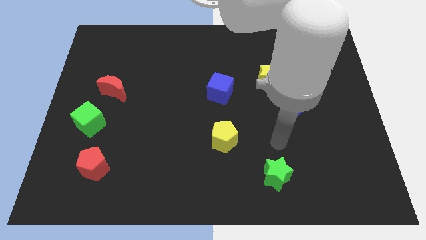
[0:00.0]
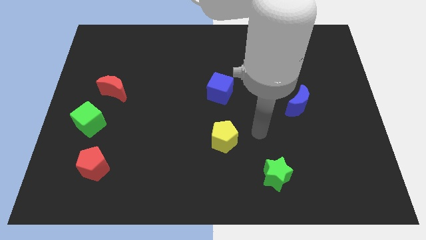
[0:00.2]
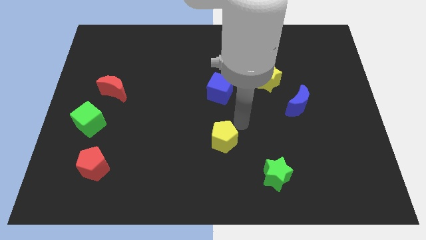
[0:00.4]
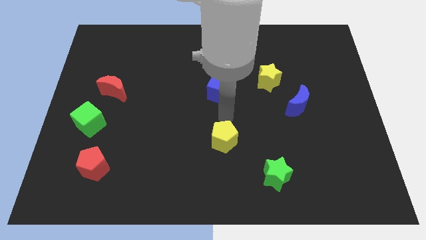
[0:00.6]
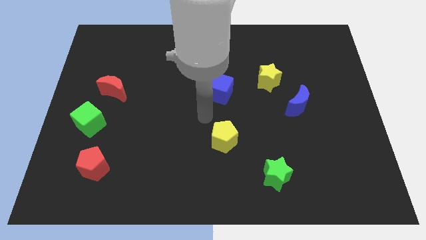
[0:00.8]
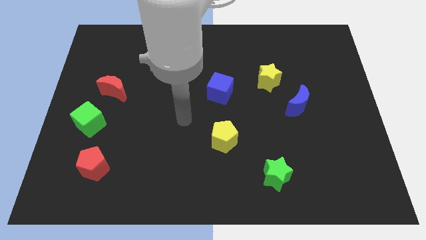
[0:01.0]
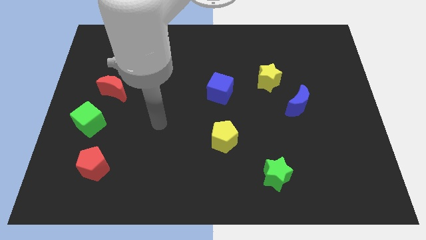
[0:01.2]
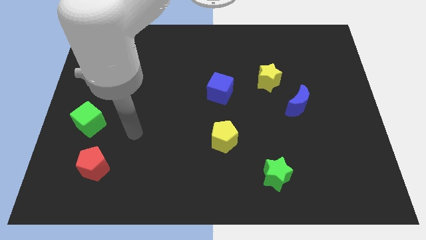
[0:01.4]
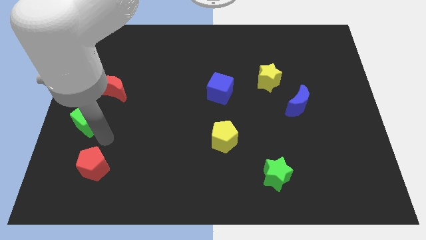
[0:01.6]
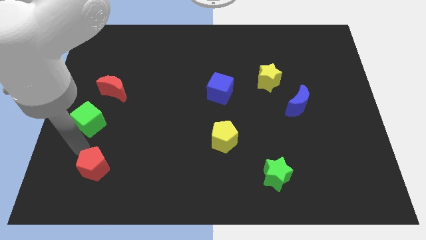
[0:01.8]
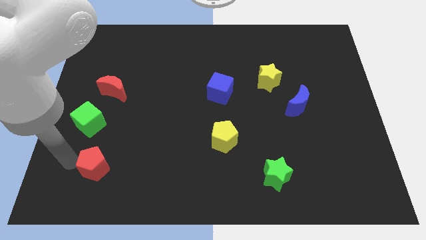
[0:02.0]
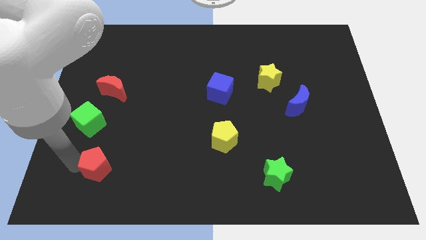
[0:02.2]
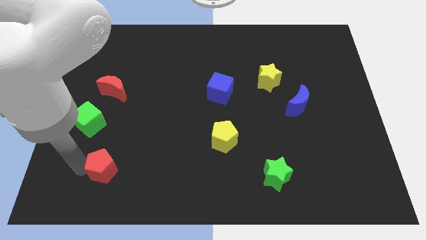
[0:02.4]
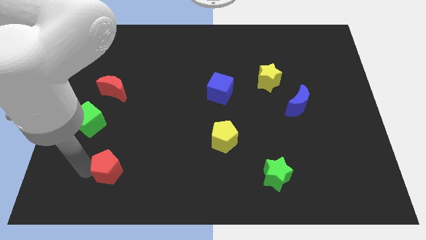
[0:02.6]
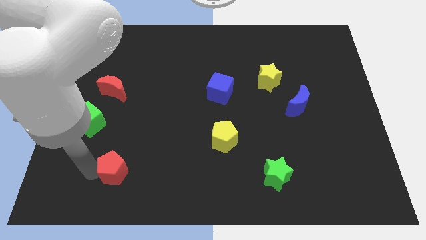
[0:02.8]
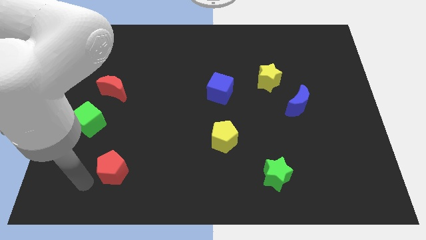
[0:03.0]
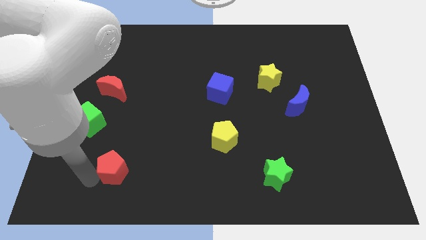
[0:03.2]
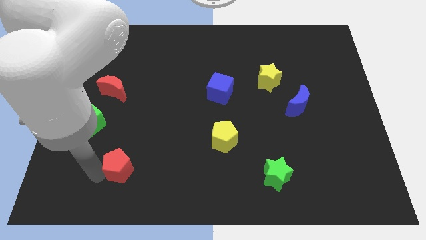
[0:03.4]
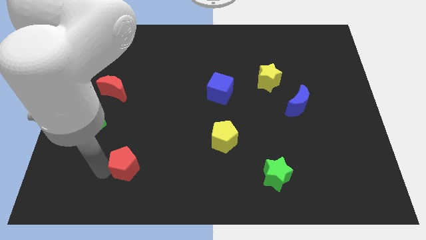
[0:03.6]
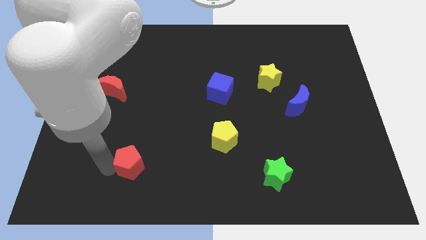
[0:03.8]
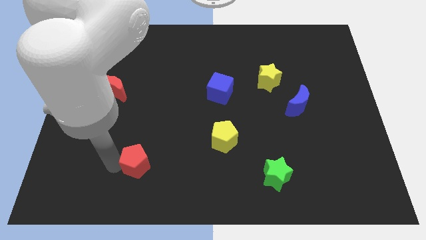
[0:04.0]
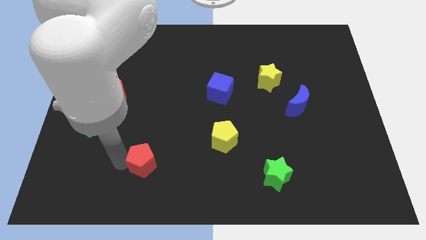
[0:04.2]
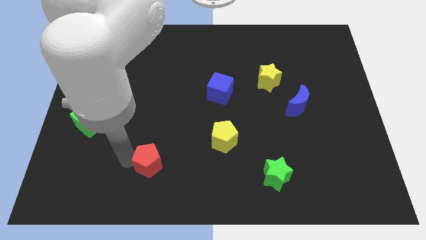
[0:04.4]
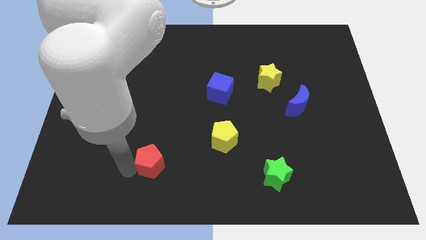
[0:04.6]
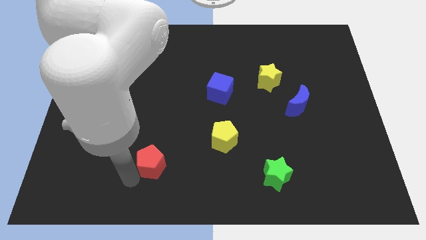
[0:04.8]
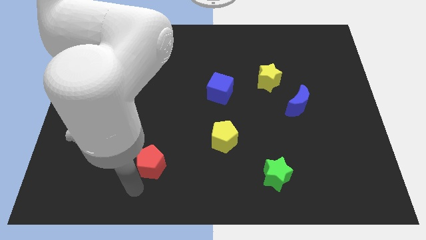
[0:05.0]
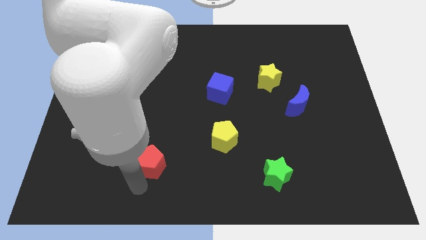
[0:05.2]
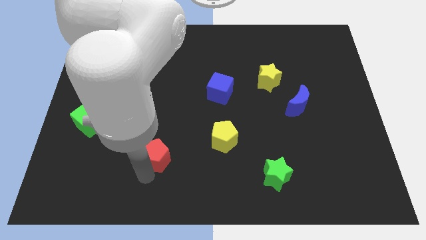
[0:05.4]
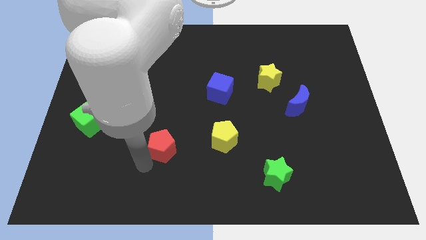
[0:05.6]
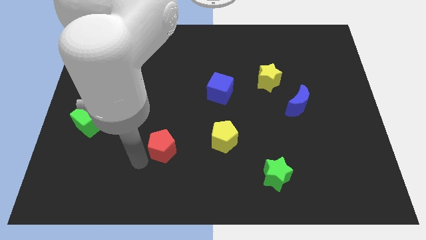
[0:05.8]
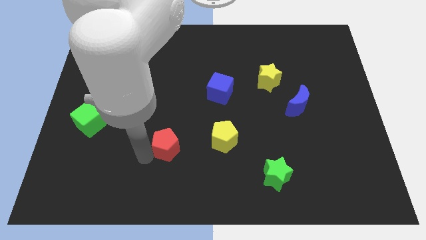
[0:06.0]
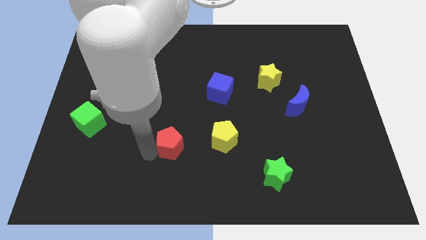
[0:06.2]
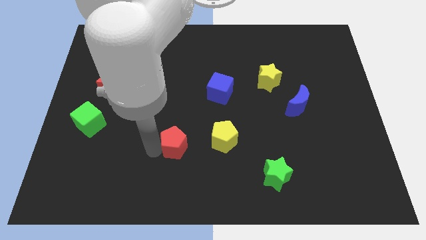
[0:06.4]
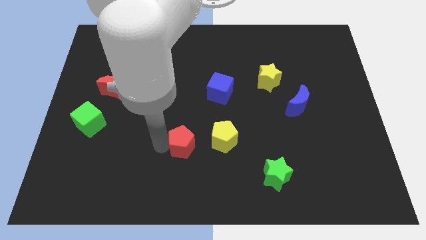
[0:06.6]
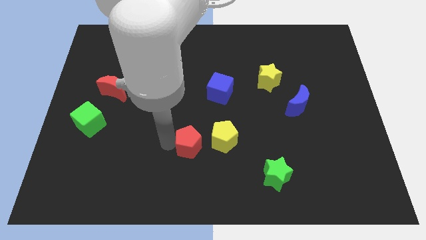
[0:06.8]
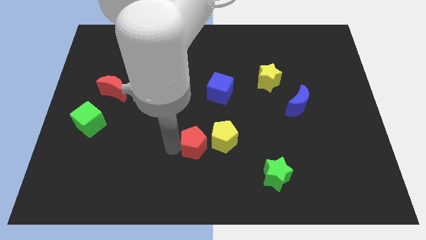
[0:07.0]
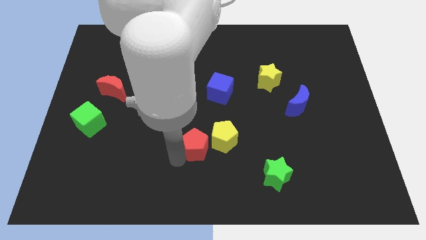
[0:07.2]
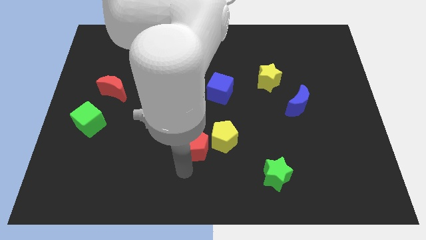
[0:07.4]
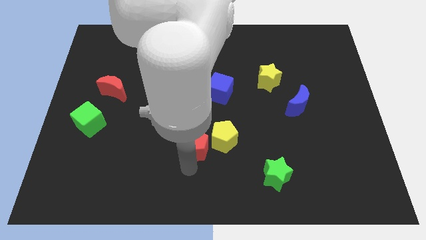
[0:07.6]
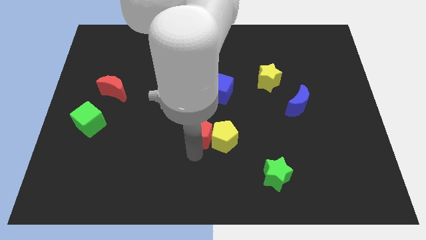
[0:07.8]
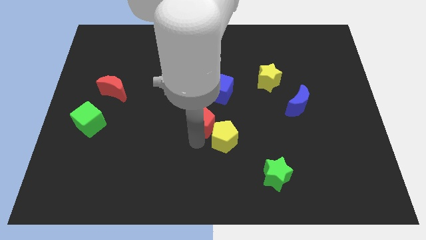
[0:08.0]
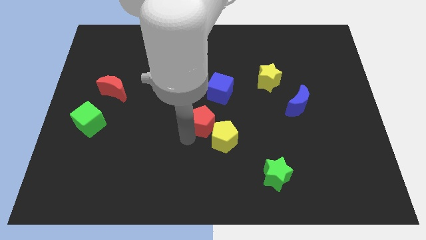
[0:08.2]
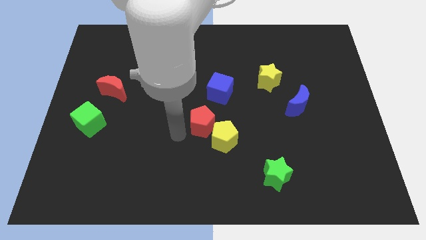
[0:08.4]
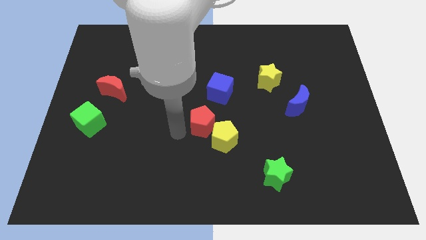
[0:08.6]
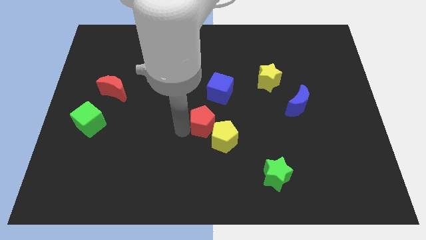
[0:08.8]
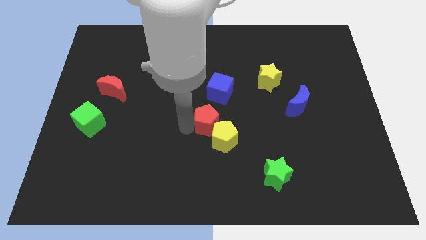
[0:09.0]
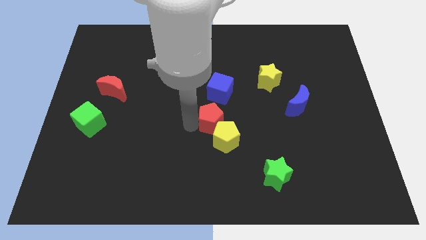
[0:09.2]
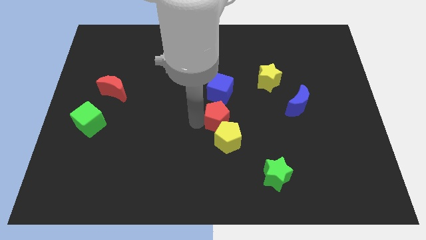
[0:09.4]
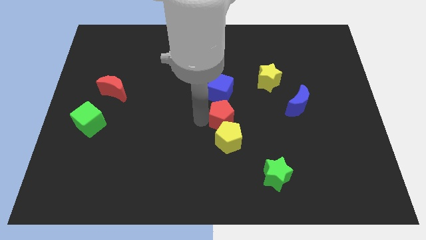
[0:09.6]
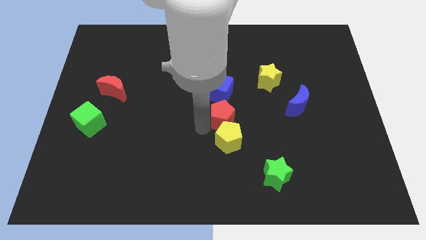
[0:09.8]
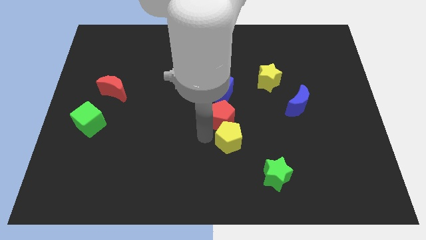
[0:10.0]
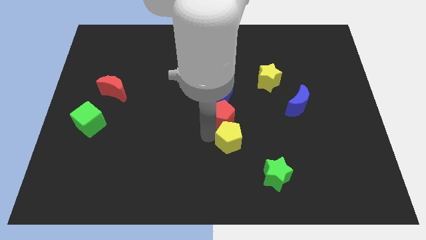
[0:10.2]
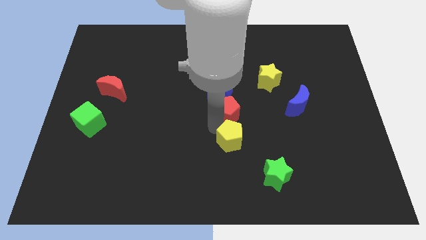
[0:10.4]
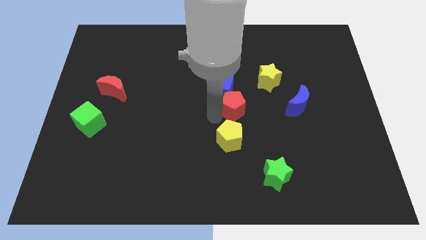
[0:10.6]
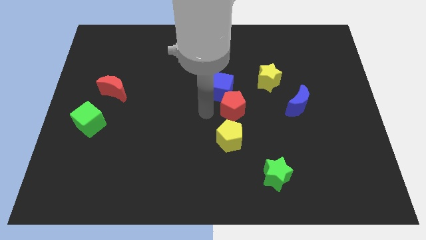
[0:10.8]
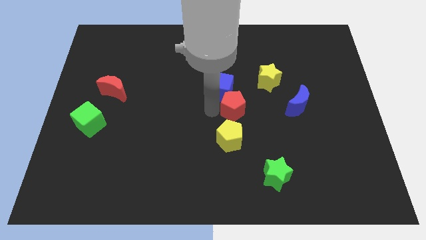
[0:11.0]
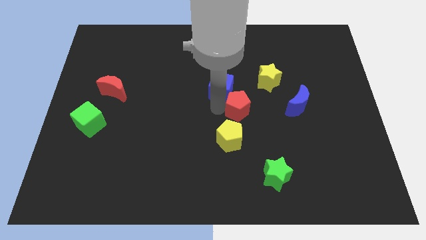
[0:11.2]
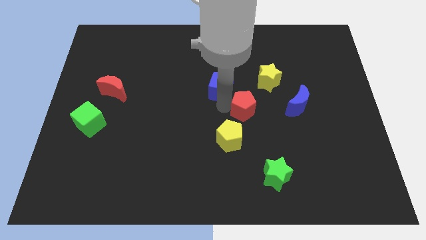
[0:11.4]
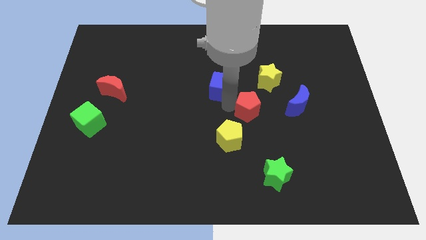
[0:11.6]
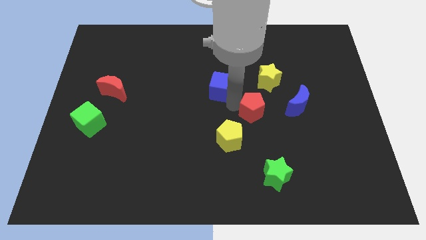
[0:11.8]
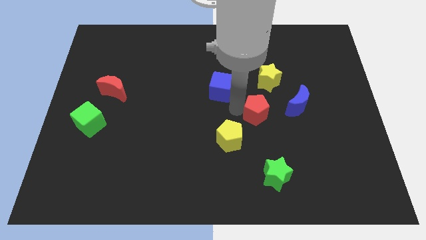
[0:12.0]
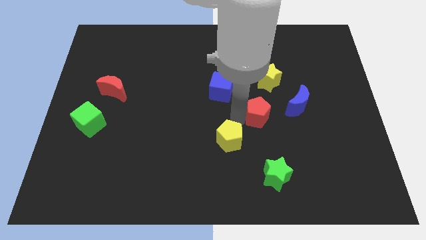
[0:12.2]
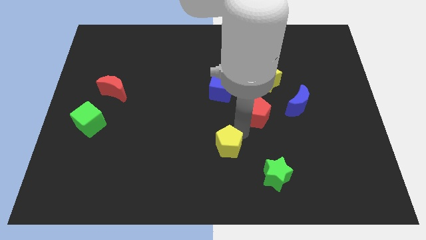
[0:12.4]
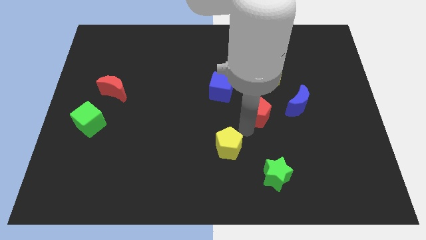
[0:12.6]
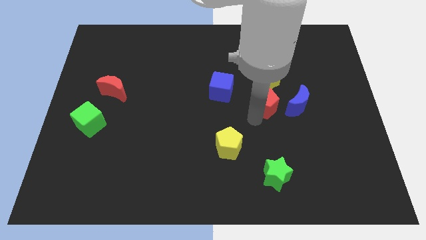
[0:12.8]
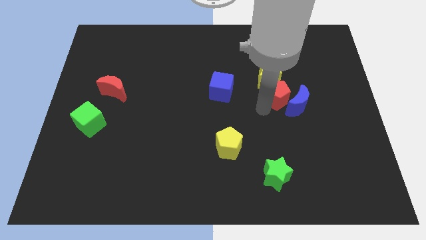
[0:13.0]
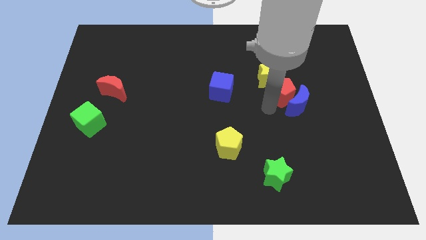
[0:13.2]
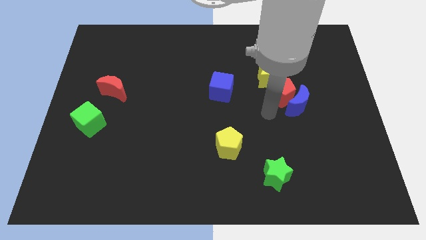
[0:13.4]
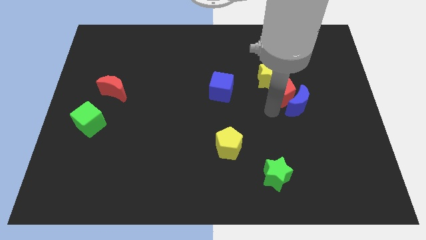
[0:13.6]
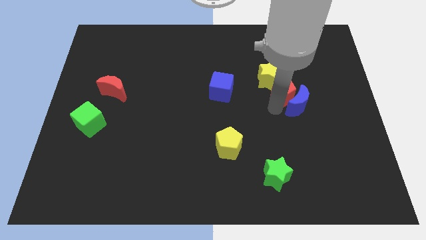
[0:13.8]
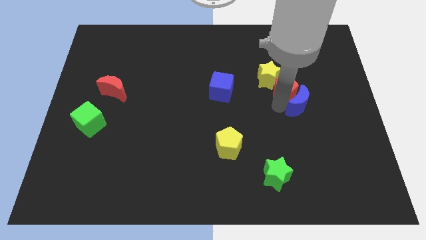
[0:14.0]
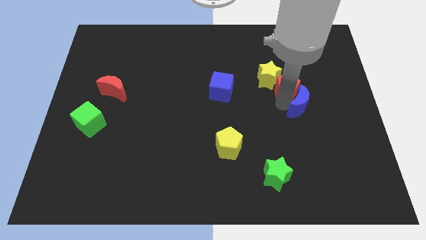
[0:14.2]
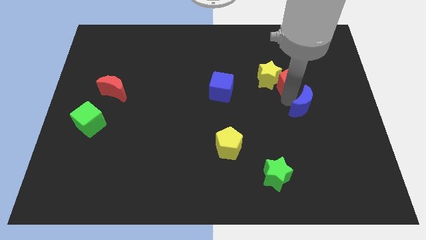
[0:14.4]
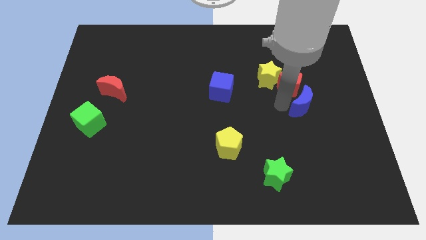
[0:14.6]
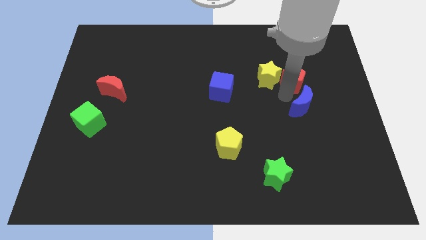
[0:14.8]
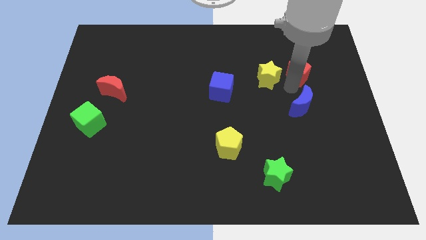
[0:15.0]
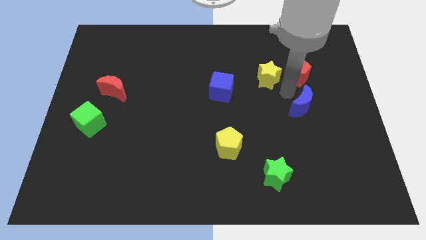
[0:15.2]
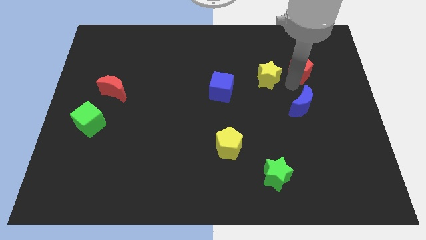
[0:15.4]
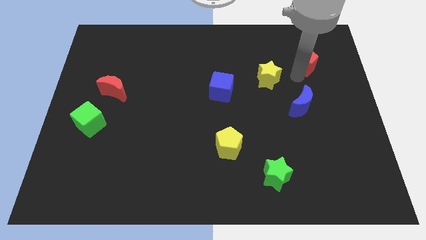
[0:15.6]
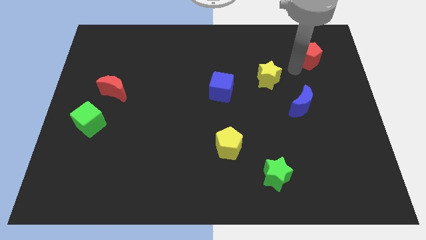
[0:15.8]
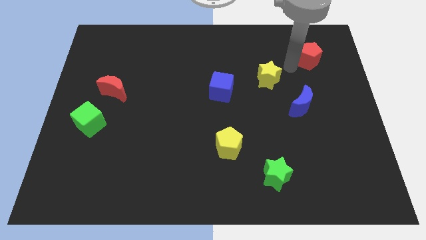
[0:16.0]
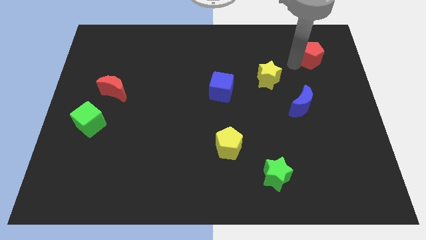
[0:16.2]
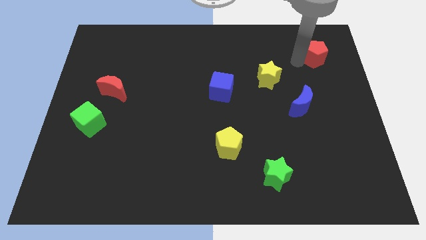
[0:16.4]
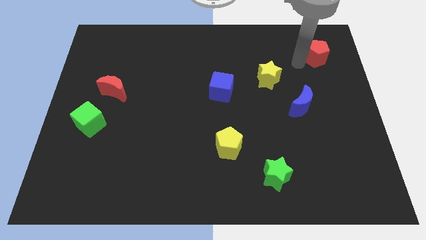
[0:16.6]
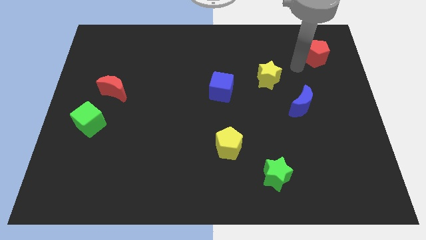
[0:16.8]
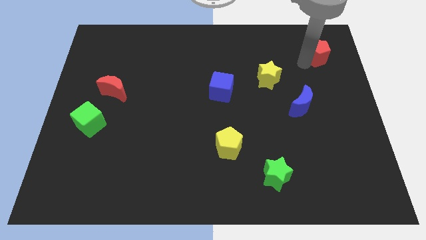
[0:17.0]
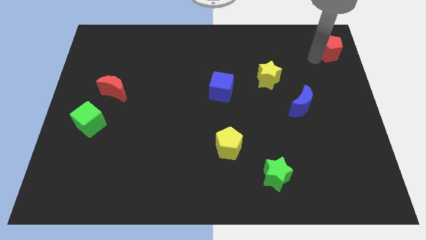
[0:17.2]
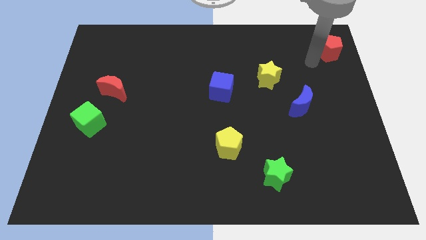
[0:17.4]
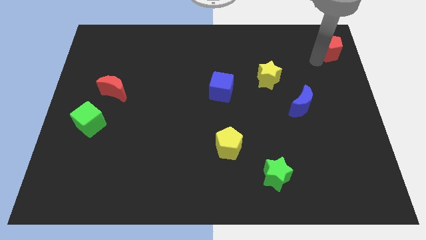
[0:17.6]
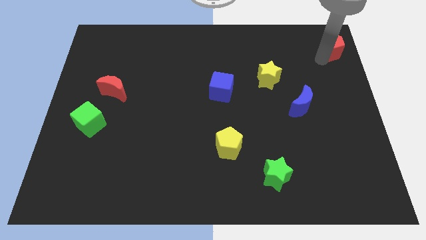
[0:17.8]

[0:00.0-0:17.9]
put the red pentagon to the upper right corner
